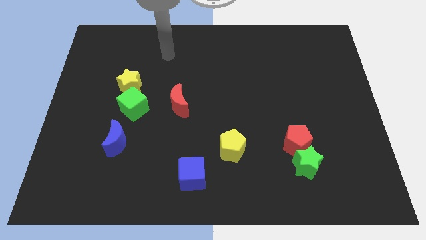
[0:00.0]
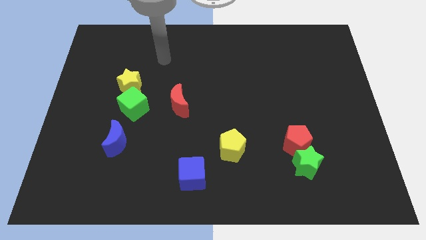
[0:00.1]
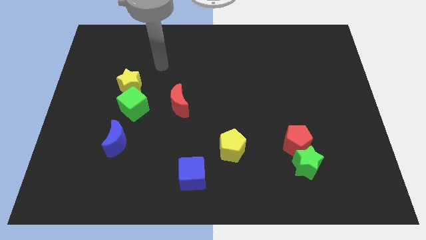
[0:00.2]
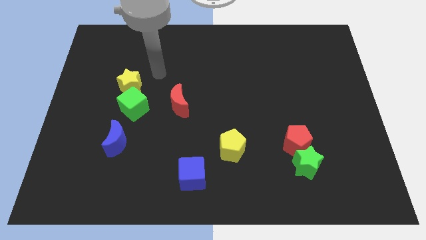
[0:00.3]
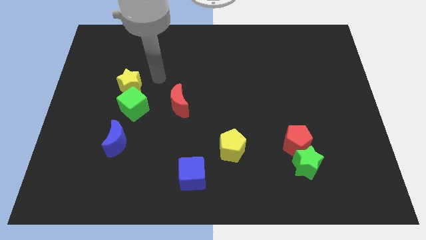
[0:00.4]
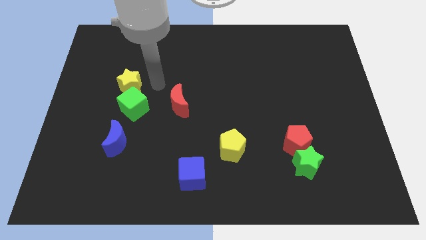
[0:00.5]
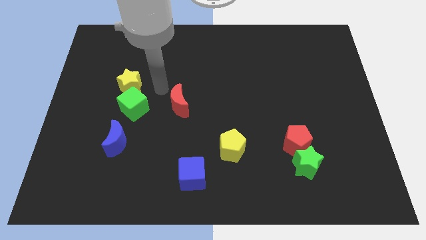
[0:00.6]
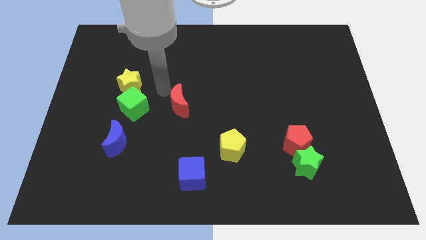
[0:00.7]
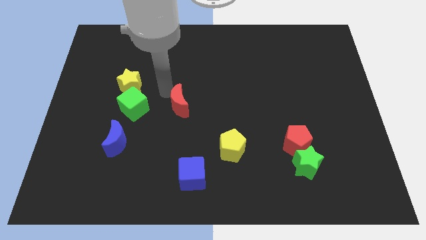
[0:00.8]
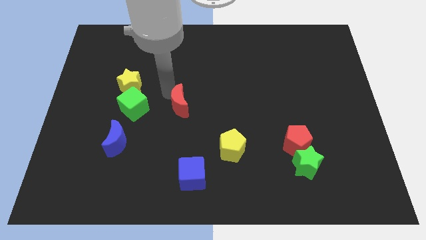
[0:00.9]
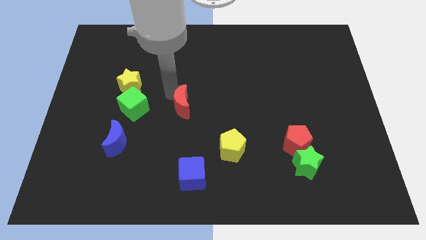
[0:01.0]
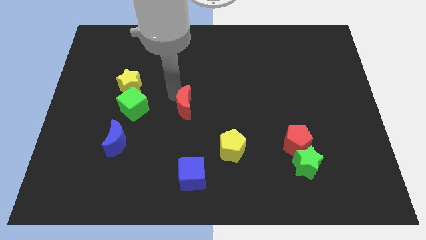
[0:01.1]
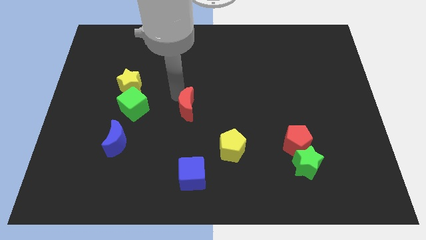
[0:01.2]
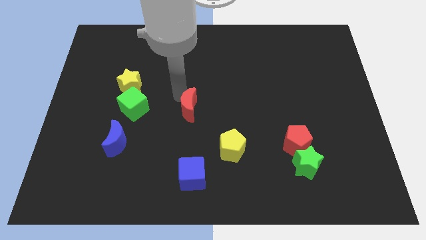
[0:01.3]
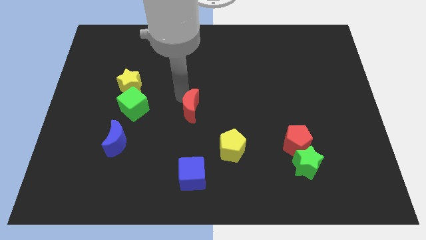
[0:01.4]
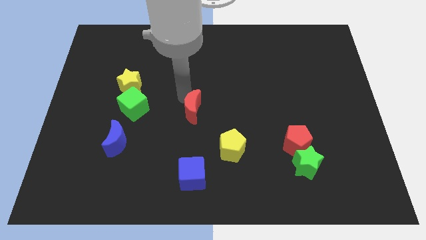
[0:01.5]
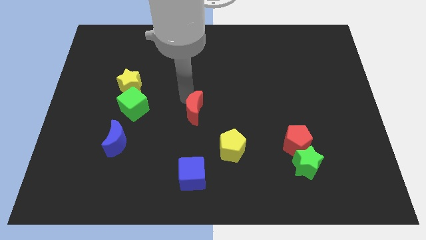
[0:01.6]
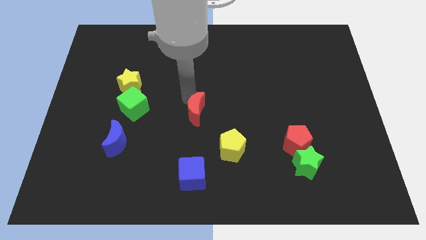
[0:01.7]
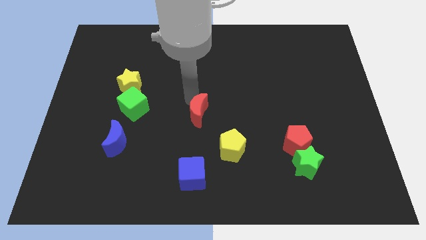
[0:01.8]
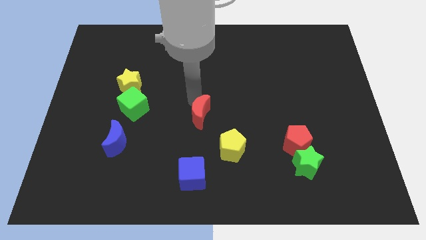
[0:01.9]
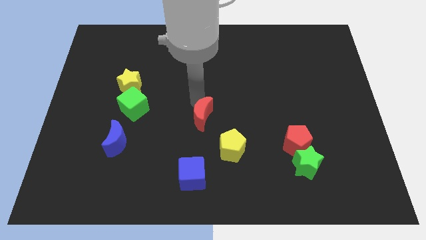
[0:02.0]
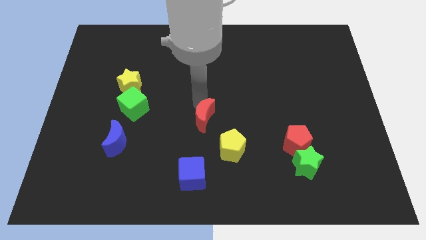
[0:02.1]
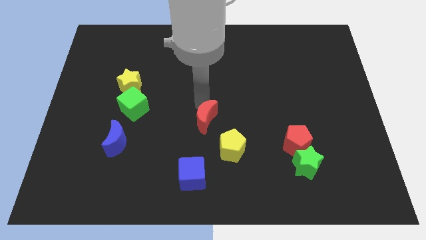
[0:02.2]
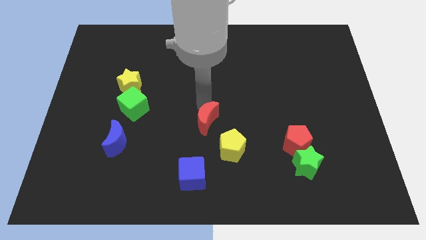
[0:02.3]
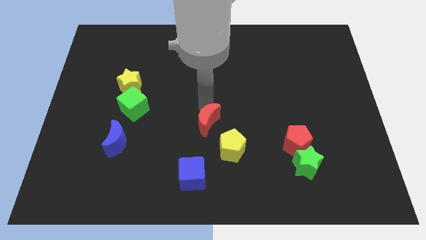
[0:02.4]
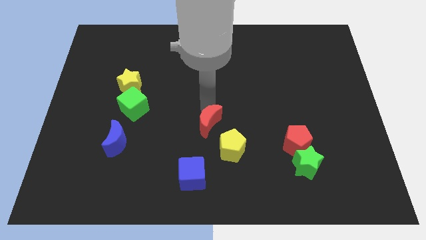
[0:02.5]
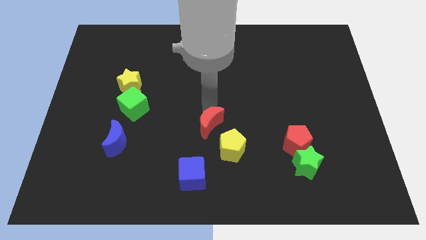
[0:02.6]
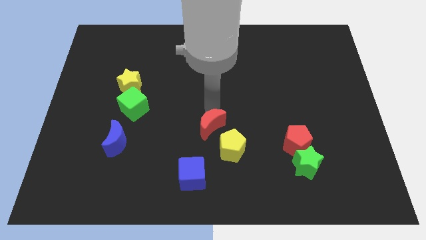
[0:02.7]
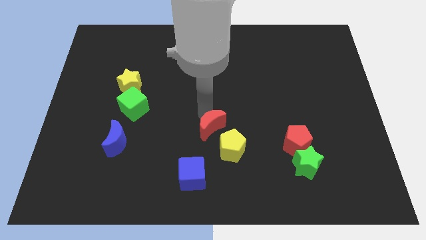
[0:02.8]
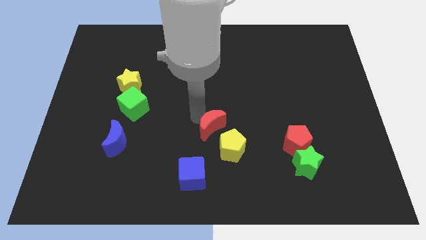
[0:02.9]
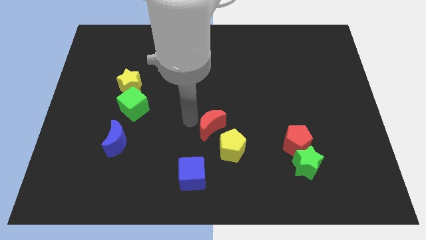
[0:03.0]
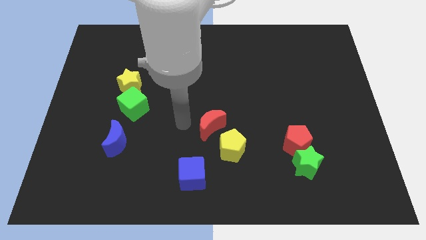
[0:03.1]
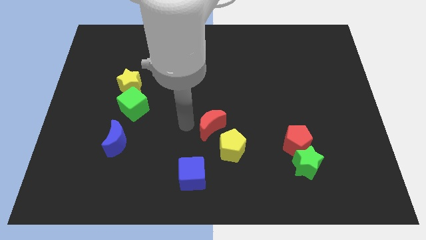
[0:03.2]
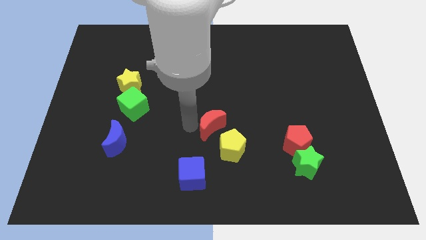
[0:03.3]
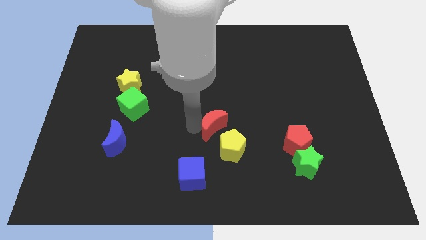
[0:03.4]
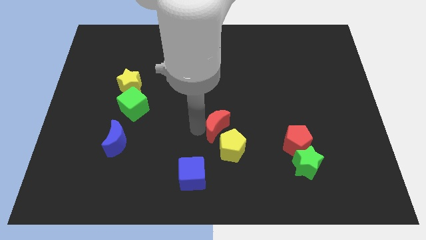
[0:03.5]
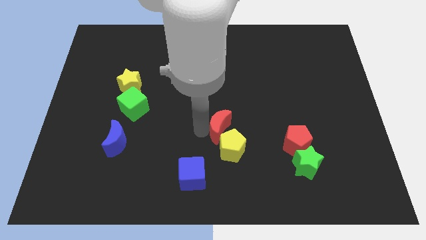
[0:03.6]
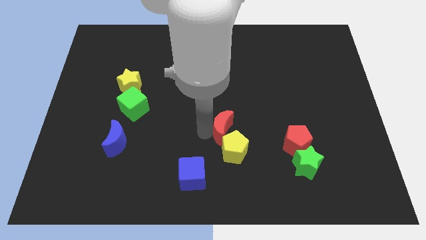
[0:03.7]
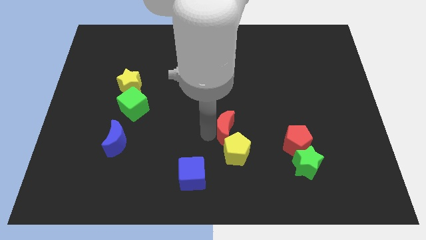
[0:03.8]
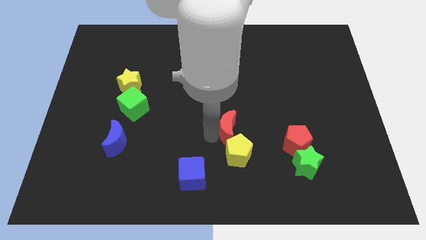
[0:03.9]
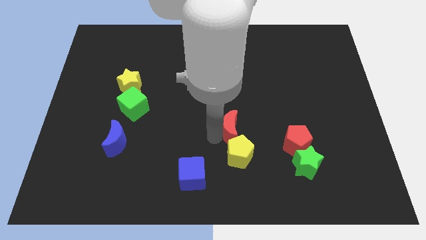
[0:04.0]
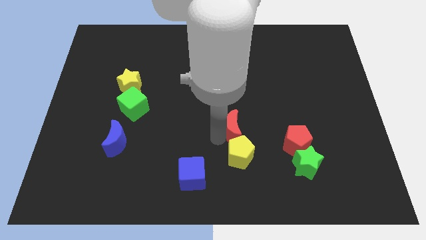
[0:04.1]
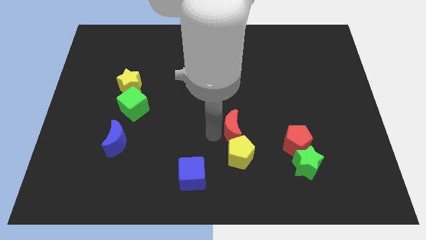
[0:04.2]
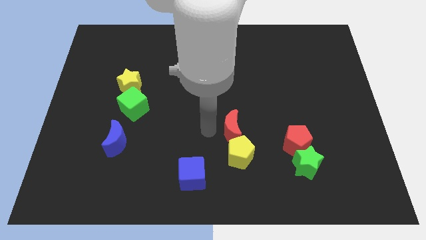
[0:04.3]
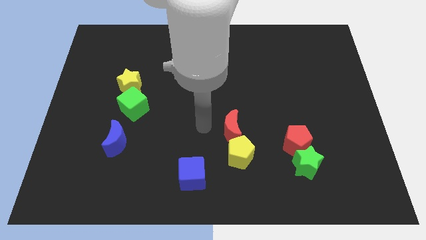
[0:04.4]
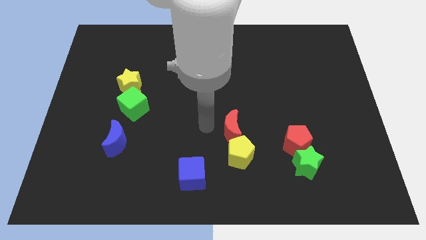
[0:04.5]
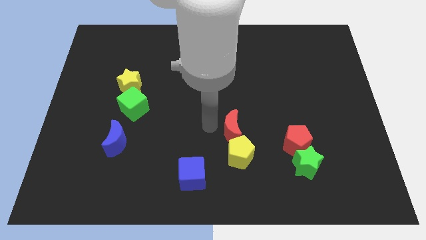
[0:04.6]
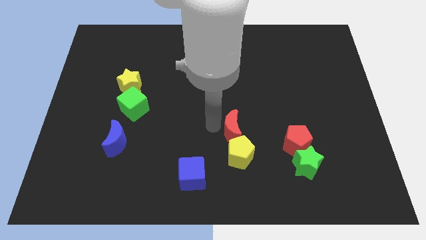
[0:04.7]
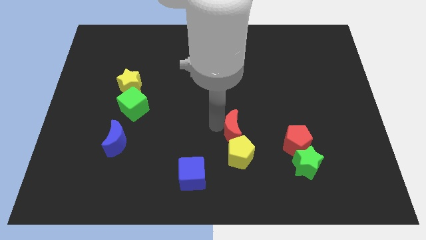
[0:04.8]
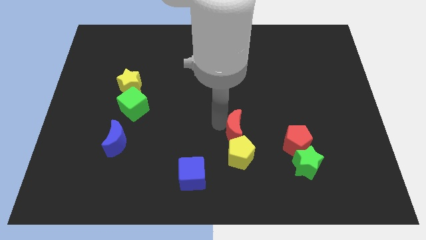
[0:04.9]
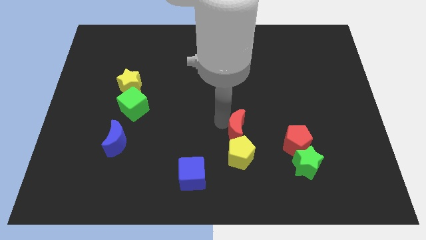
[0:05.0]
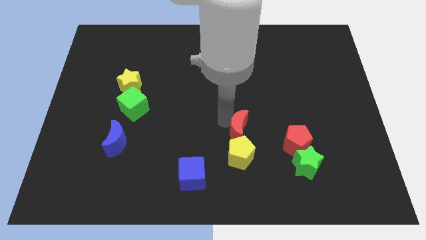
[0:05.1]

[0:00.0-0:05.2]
slide the red moon diagonally up and to the right of the yellow pentagon

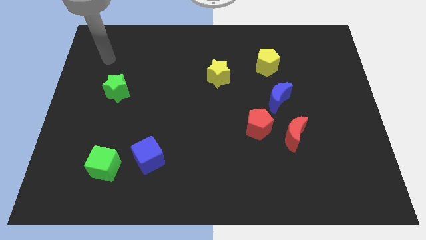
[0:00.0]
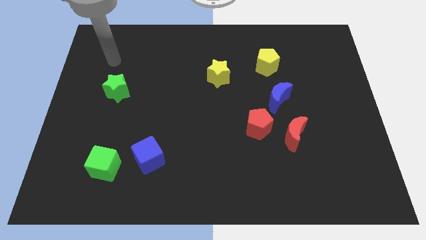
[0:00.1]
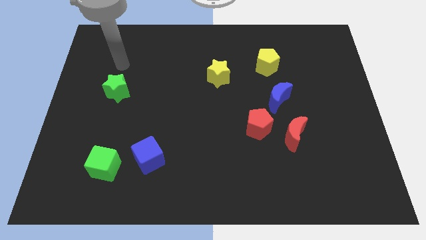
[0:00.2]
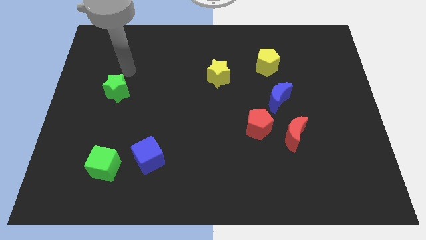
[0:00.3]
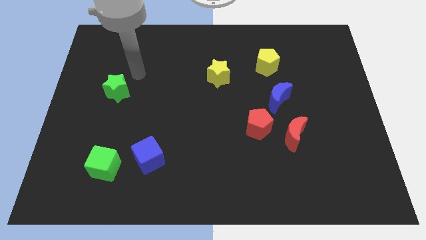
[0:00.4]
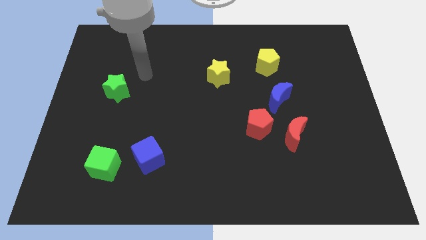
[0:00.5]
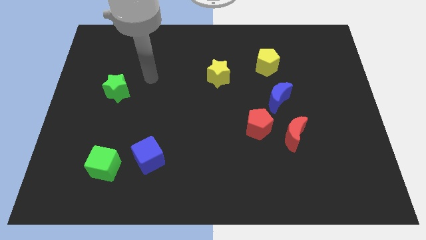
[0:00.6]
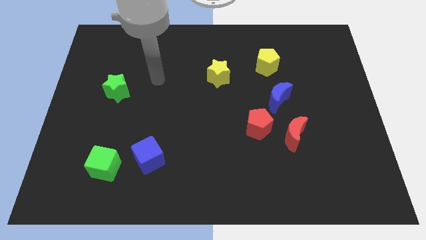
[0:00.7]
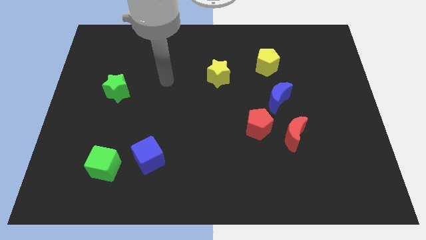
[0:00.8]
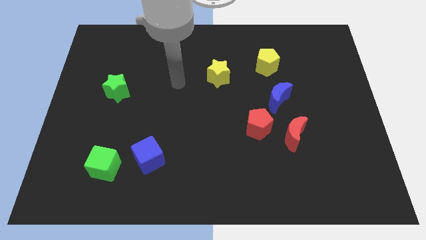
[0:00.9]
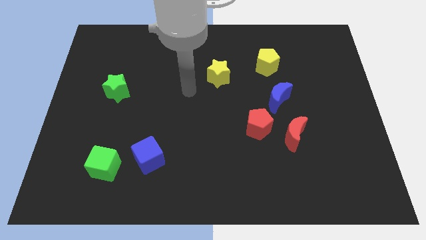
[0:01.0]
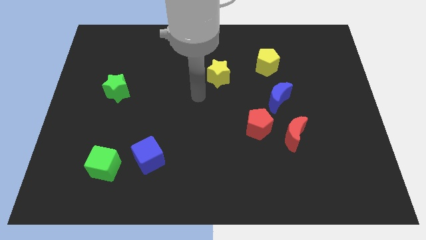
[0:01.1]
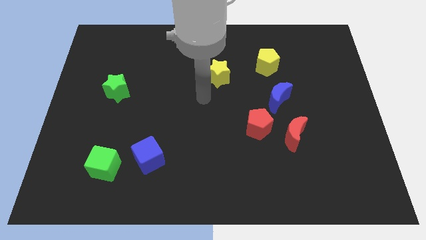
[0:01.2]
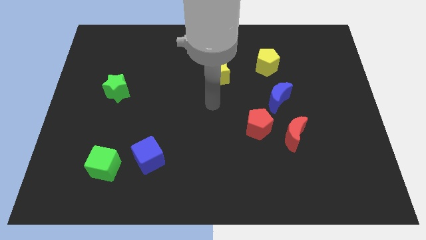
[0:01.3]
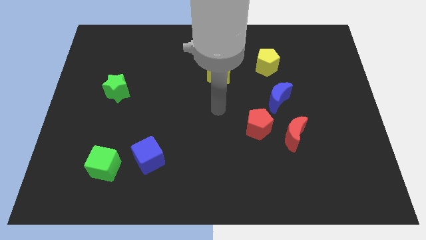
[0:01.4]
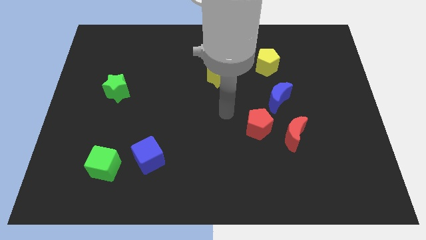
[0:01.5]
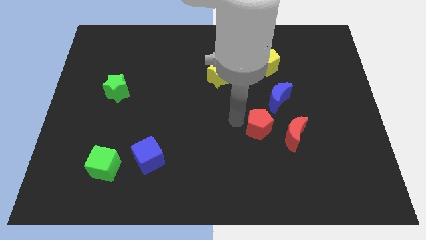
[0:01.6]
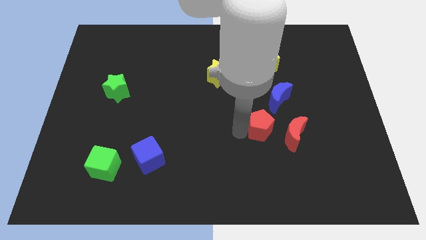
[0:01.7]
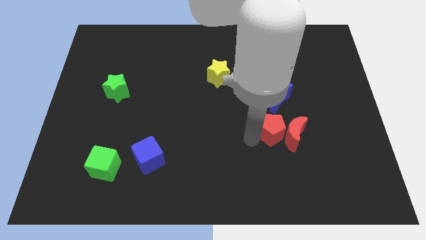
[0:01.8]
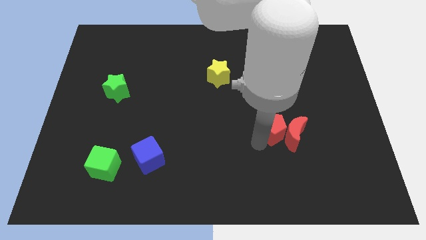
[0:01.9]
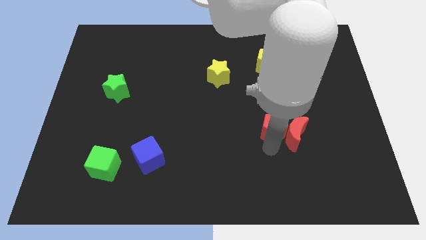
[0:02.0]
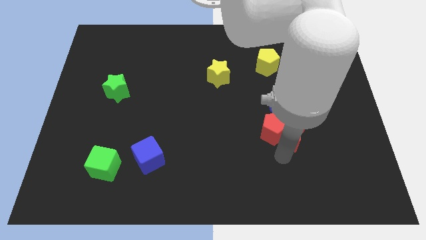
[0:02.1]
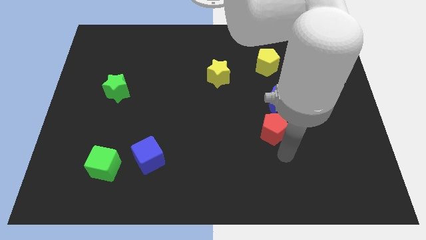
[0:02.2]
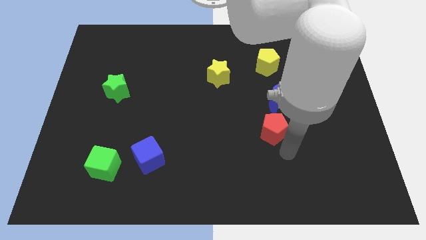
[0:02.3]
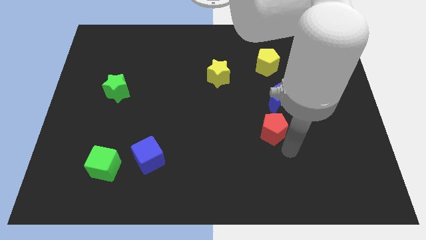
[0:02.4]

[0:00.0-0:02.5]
slide the red moon diagonally down and to the right of the blue moon
